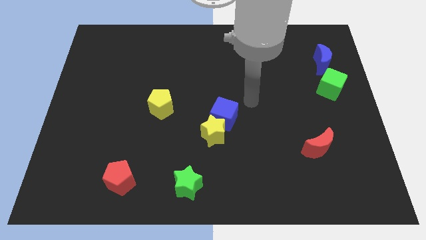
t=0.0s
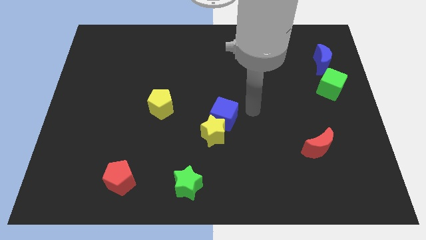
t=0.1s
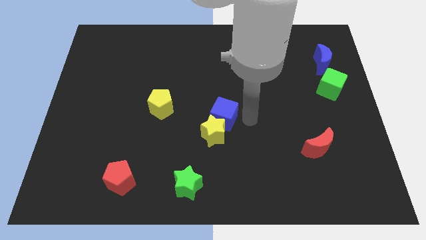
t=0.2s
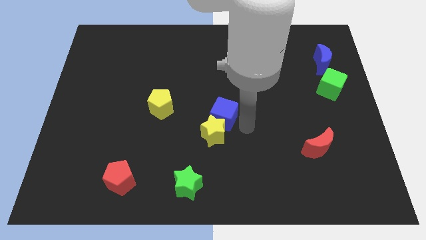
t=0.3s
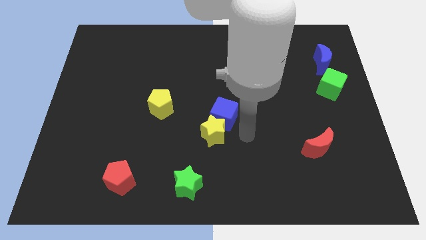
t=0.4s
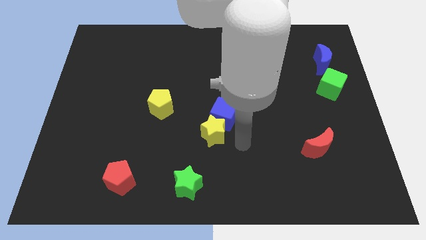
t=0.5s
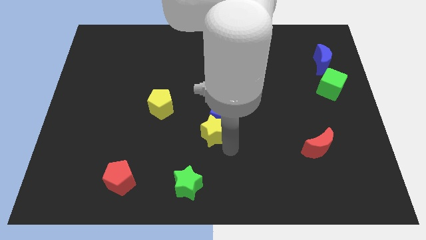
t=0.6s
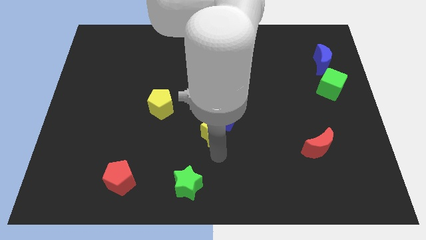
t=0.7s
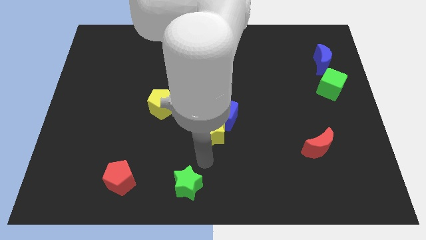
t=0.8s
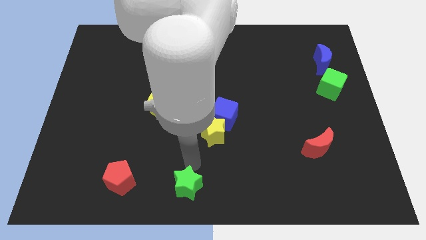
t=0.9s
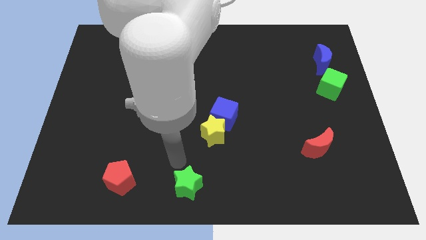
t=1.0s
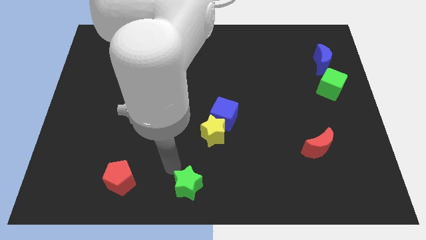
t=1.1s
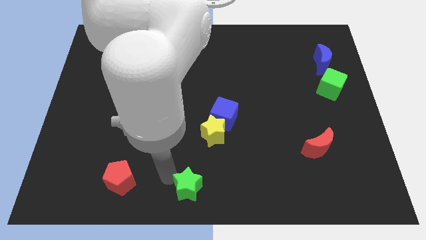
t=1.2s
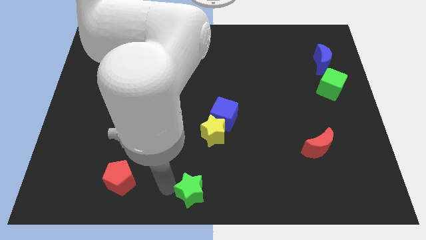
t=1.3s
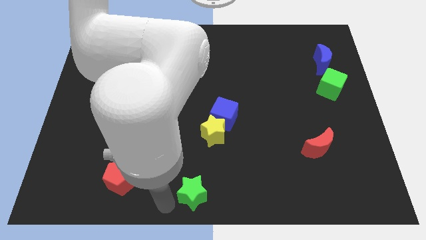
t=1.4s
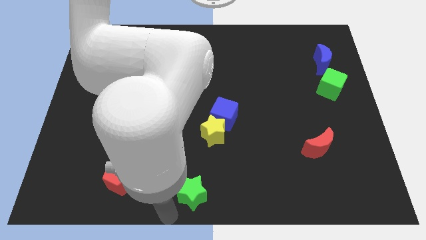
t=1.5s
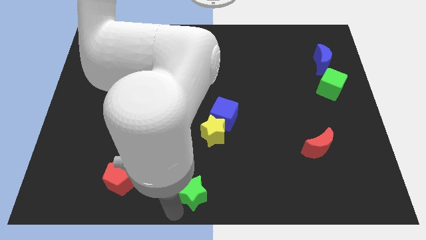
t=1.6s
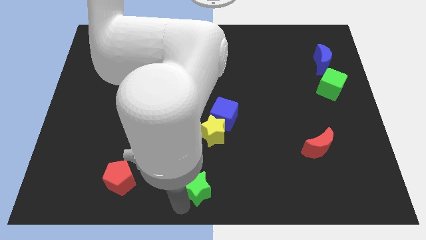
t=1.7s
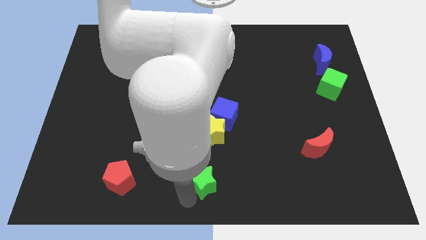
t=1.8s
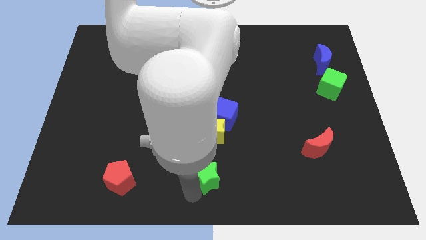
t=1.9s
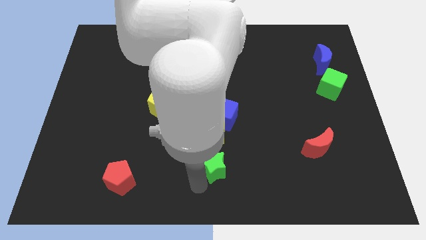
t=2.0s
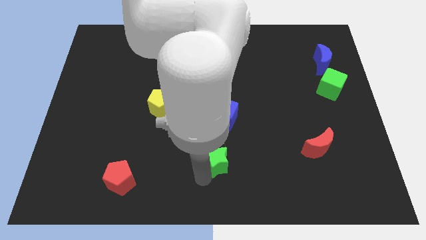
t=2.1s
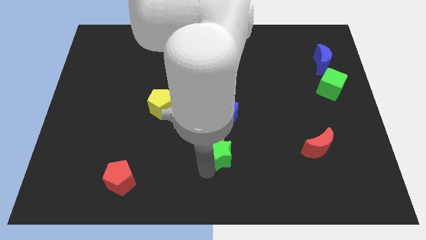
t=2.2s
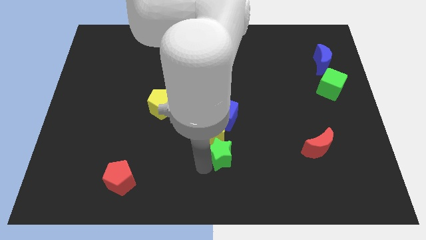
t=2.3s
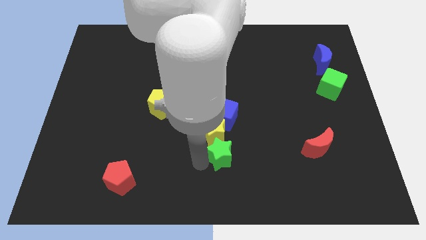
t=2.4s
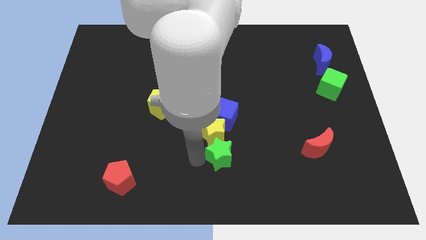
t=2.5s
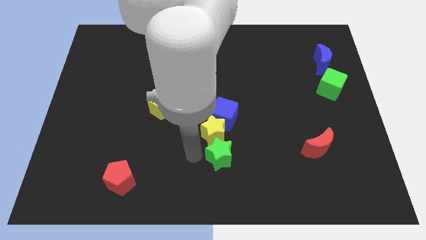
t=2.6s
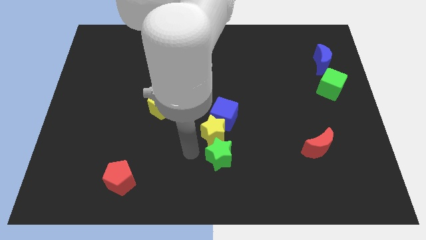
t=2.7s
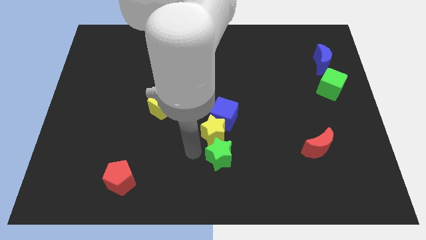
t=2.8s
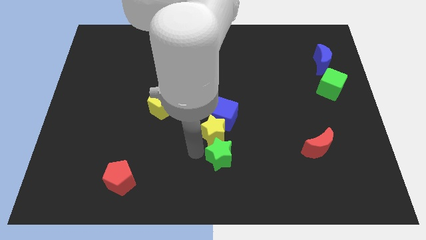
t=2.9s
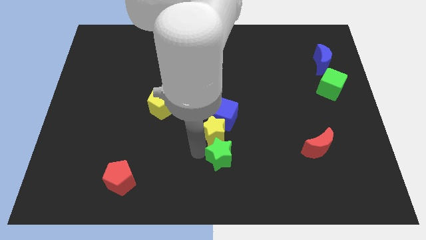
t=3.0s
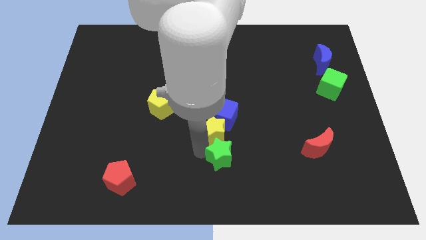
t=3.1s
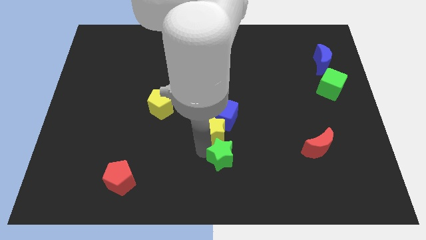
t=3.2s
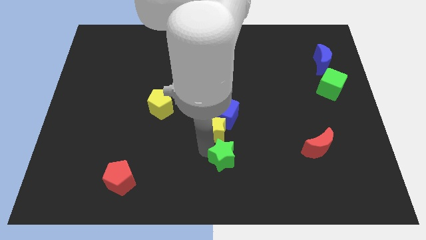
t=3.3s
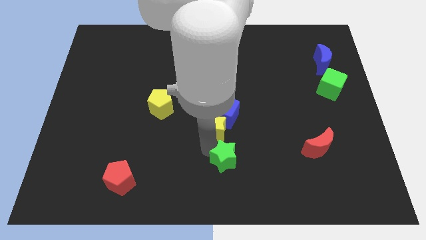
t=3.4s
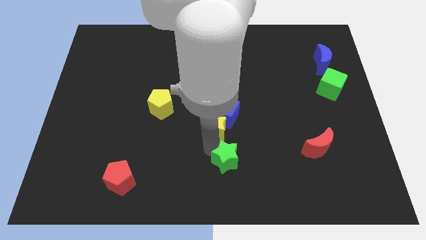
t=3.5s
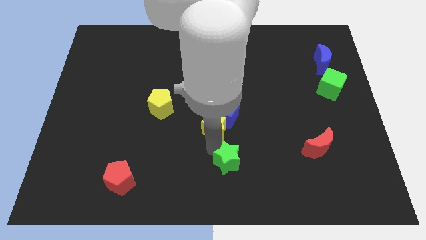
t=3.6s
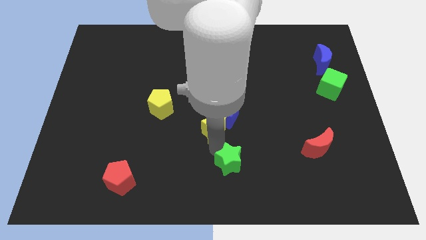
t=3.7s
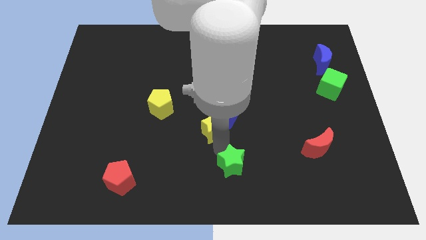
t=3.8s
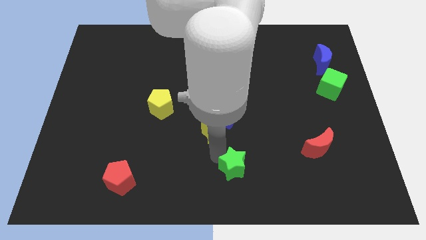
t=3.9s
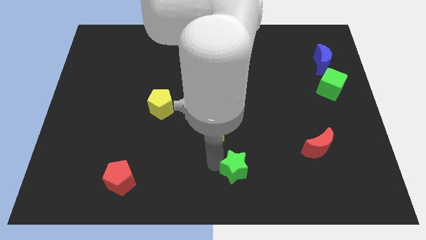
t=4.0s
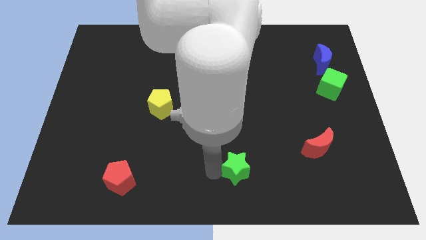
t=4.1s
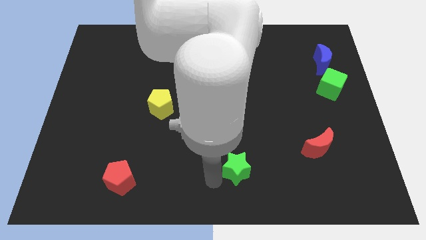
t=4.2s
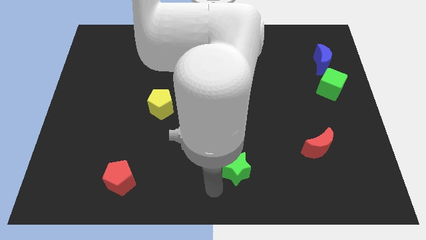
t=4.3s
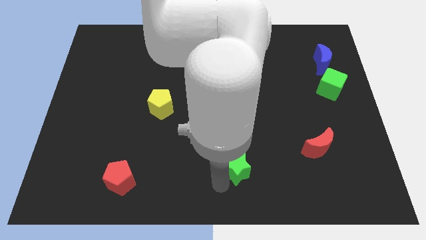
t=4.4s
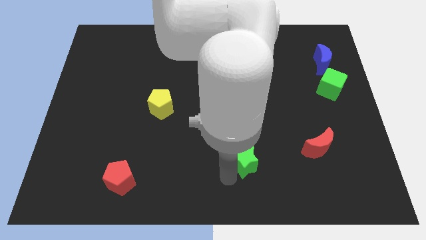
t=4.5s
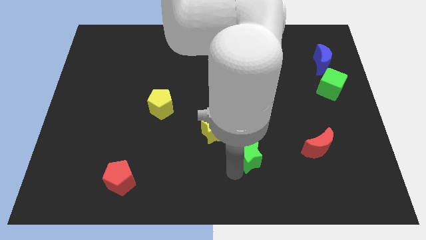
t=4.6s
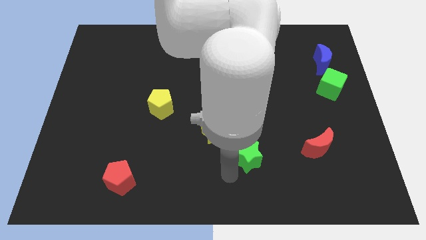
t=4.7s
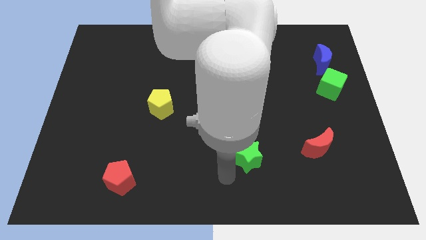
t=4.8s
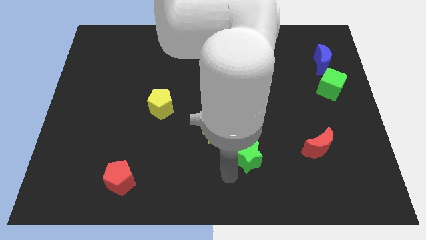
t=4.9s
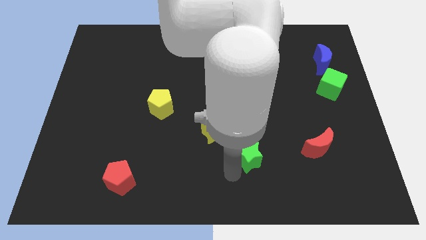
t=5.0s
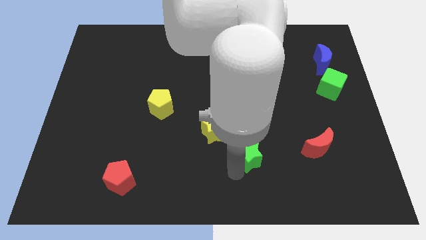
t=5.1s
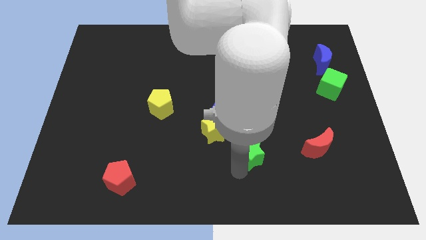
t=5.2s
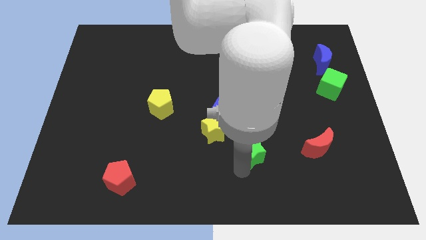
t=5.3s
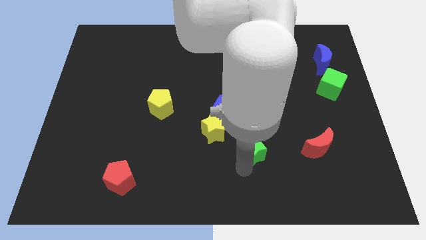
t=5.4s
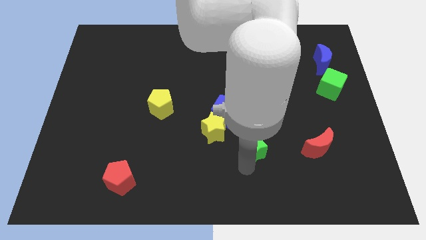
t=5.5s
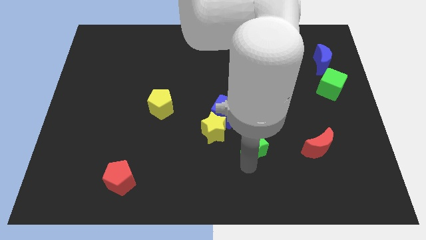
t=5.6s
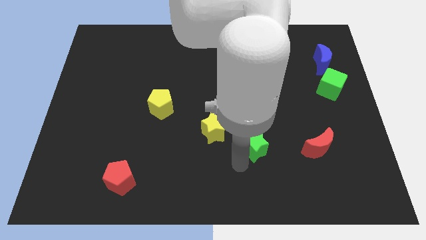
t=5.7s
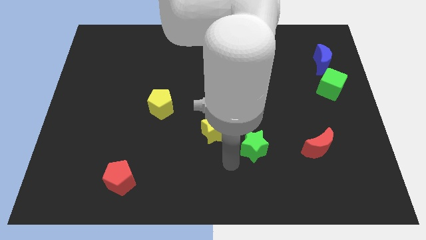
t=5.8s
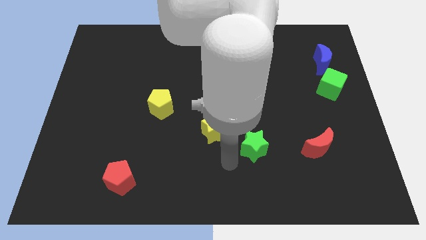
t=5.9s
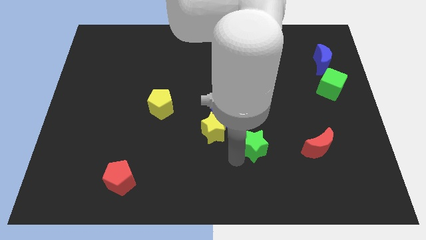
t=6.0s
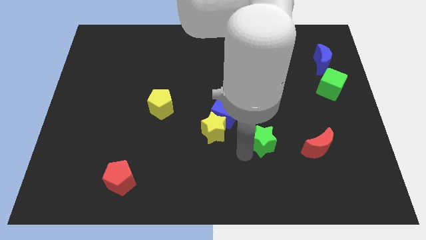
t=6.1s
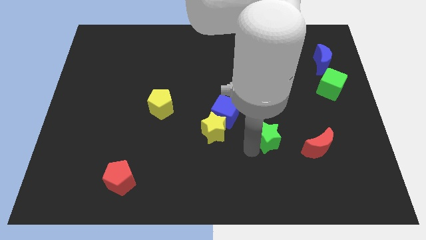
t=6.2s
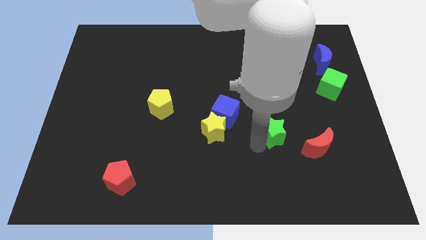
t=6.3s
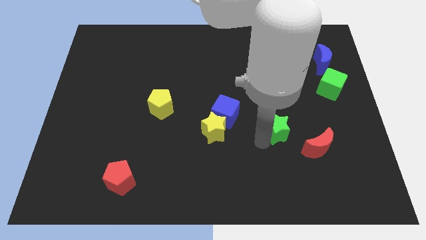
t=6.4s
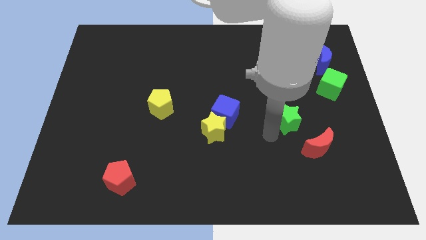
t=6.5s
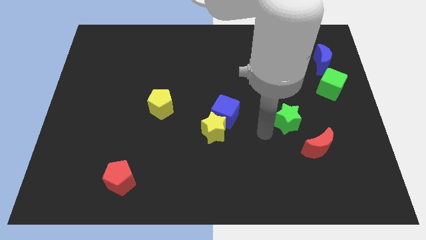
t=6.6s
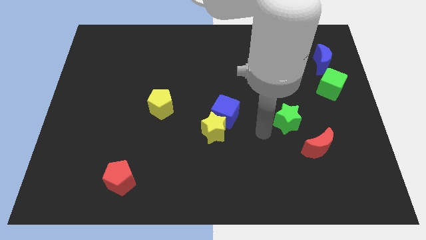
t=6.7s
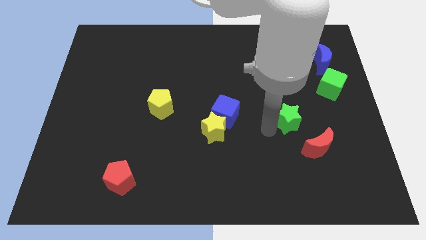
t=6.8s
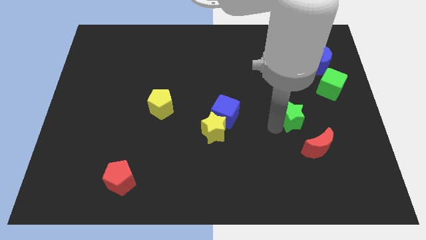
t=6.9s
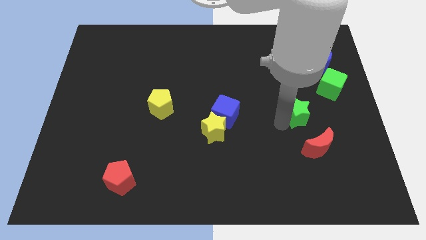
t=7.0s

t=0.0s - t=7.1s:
move the green star to the top side of the red moon

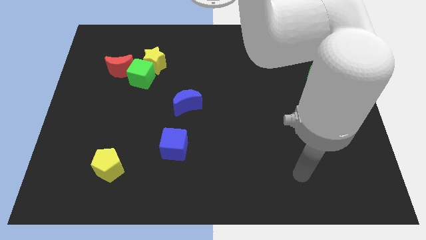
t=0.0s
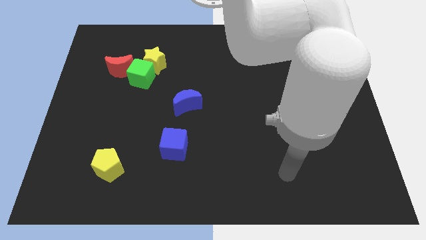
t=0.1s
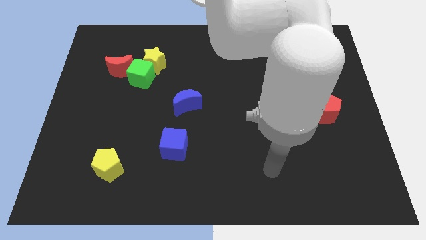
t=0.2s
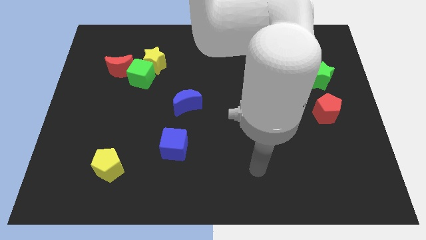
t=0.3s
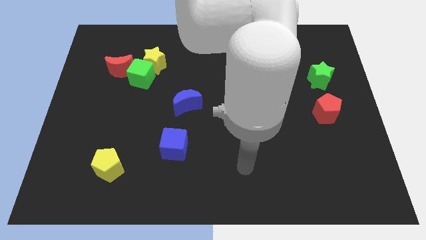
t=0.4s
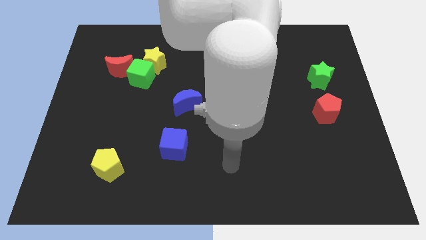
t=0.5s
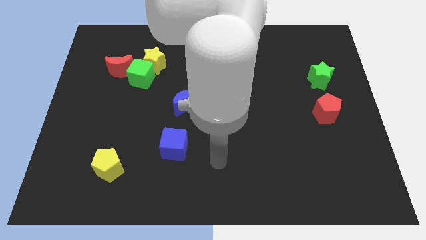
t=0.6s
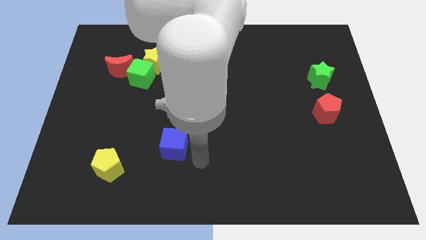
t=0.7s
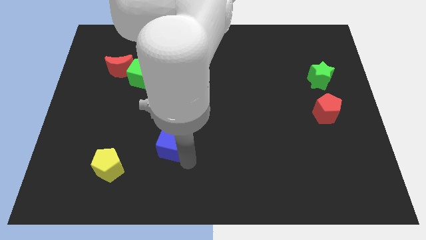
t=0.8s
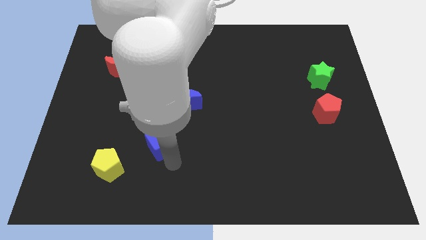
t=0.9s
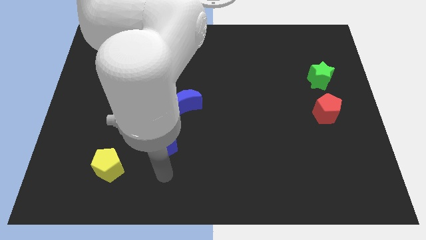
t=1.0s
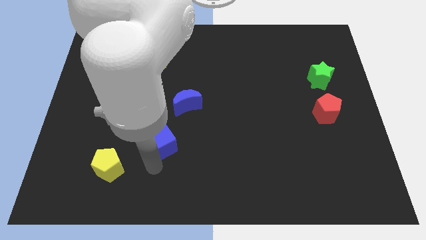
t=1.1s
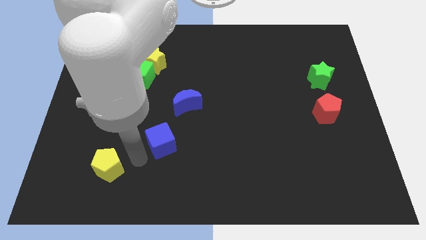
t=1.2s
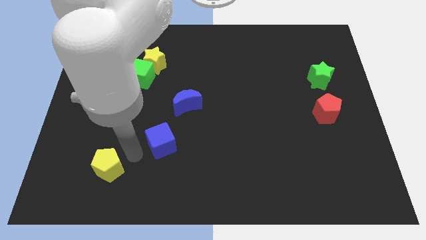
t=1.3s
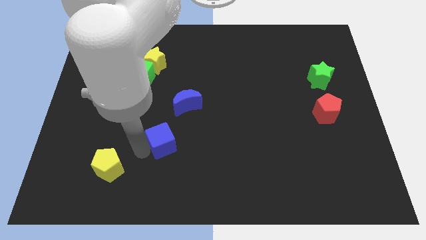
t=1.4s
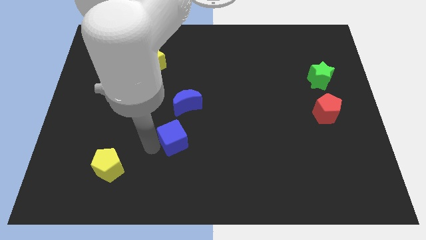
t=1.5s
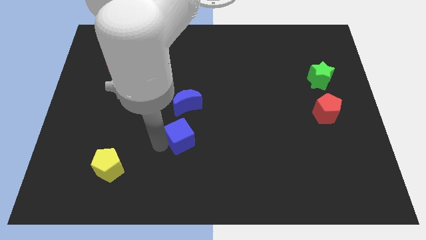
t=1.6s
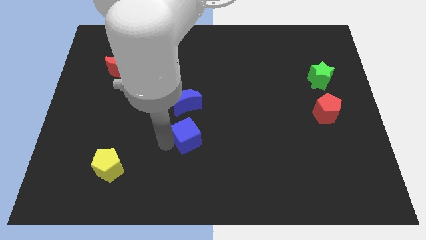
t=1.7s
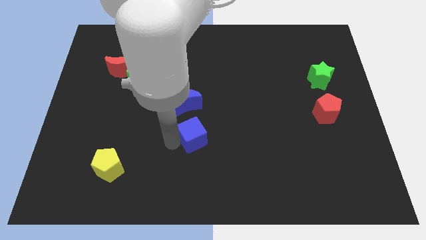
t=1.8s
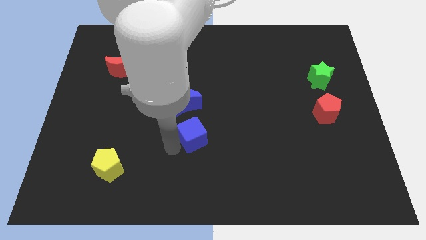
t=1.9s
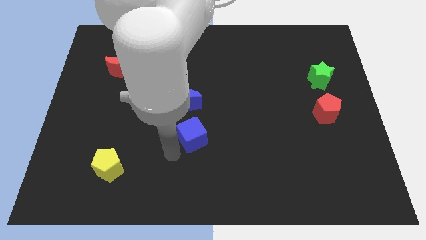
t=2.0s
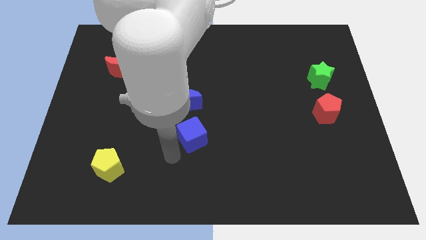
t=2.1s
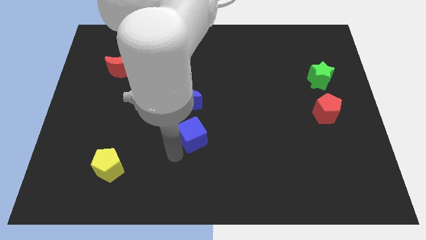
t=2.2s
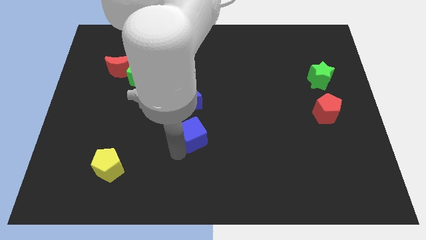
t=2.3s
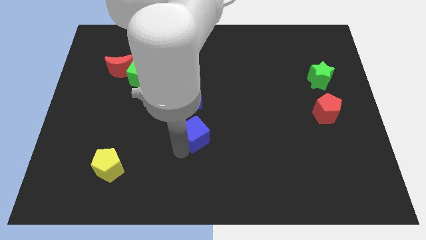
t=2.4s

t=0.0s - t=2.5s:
put the blue cube to the bottom right of the blue moon
